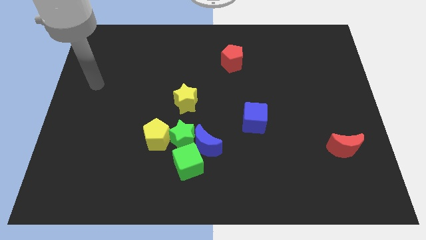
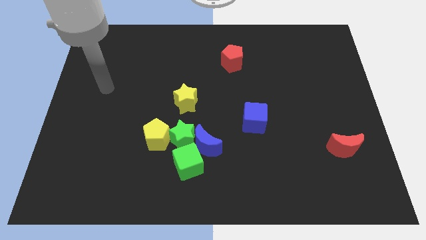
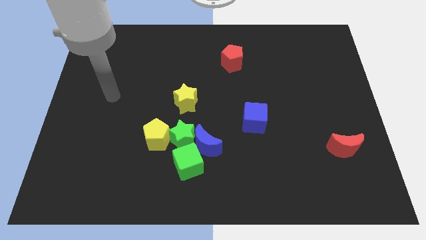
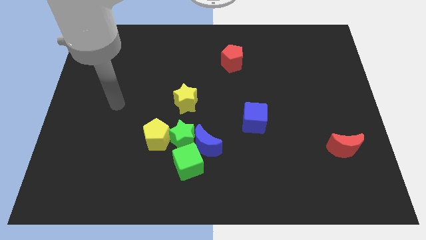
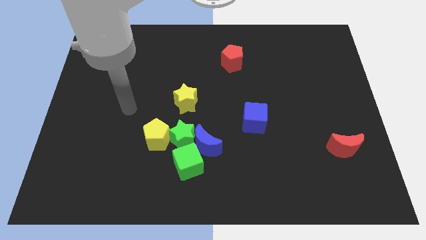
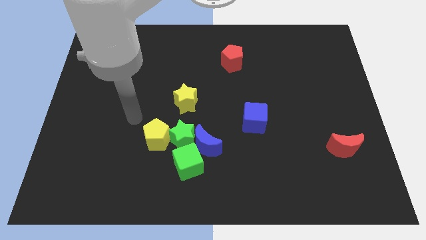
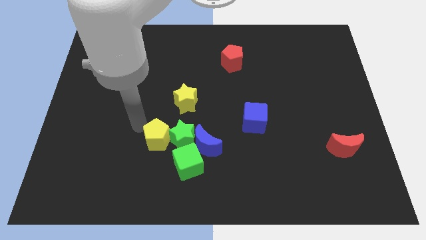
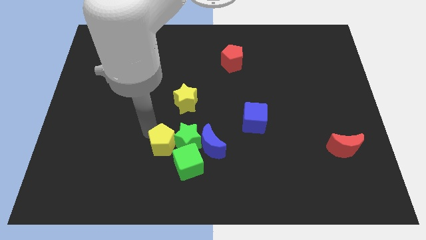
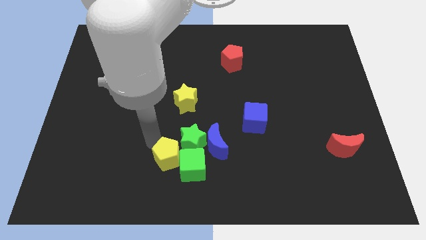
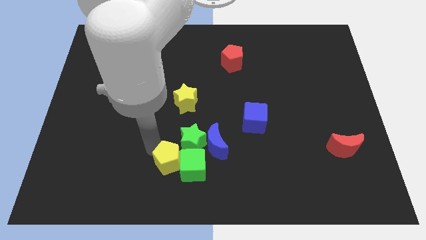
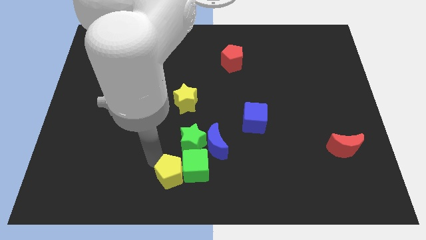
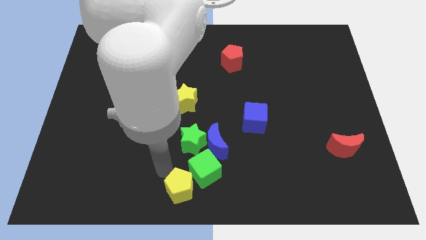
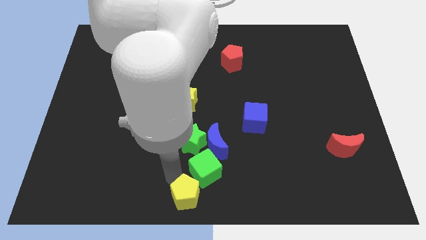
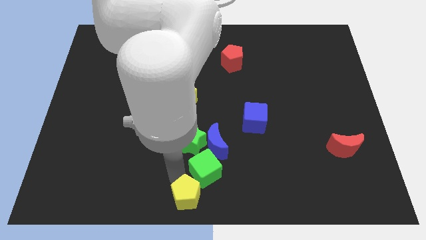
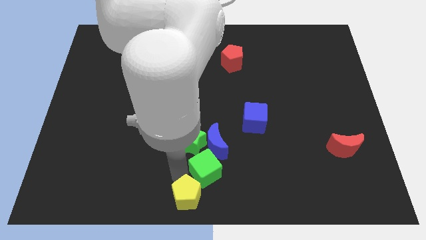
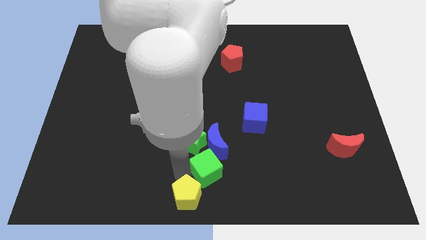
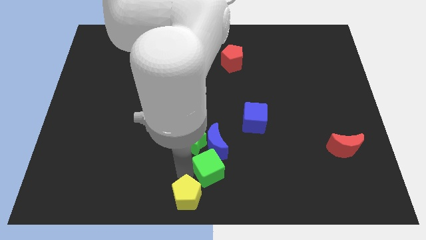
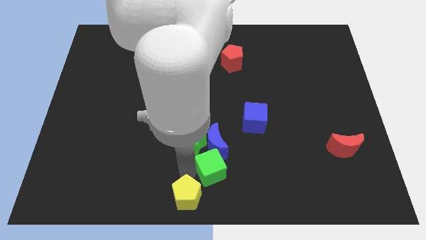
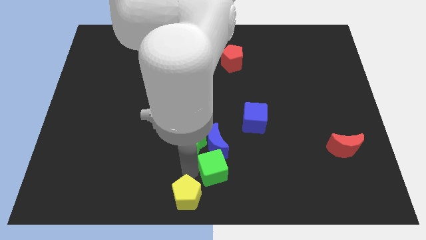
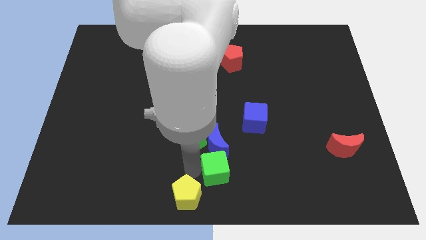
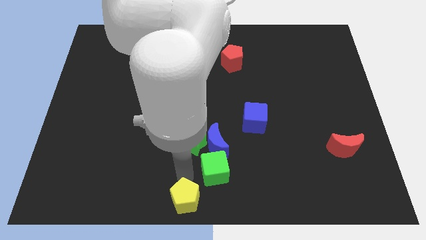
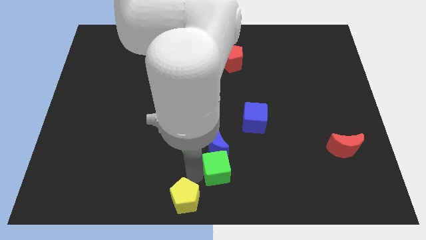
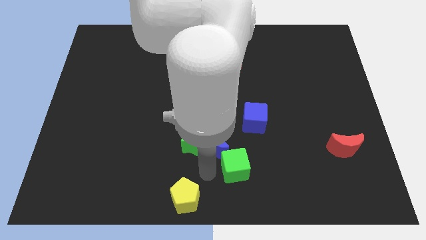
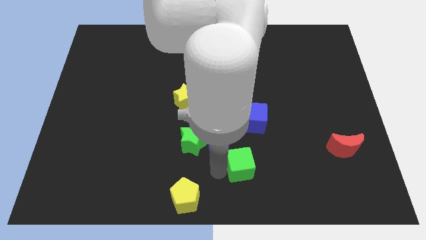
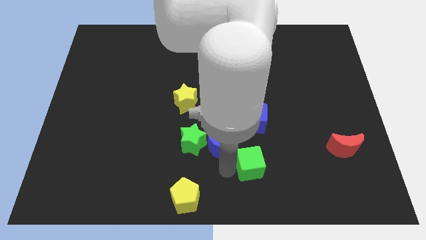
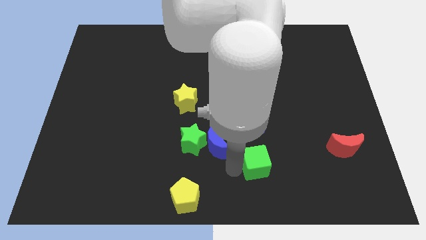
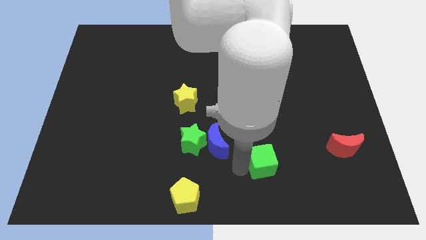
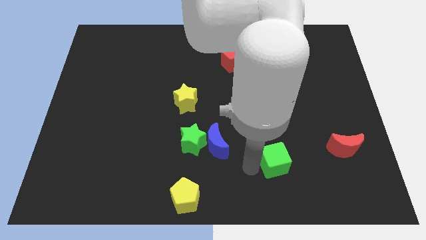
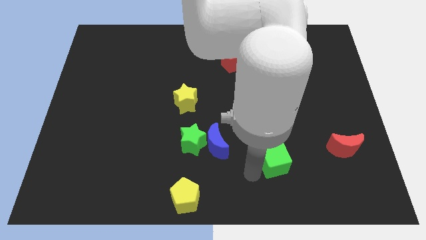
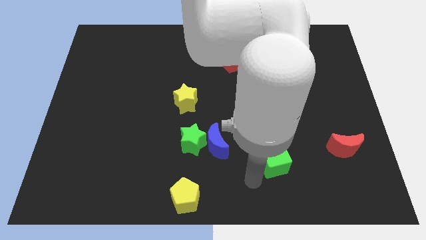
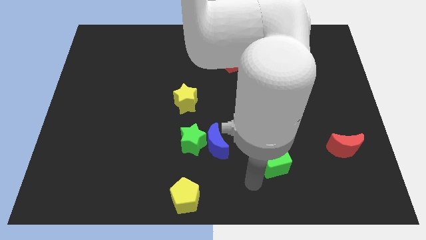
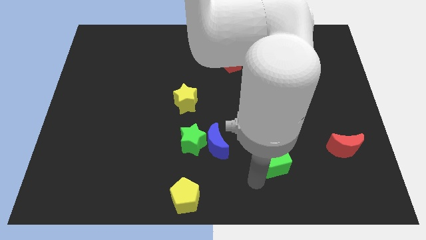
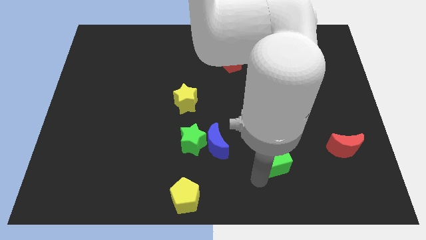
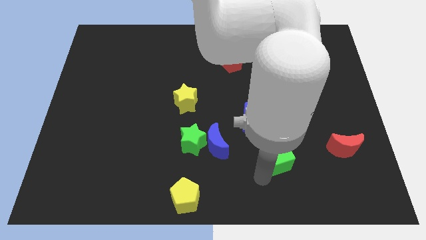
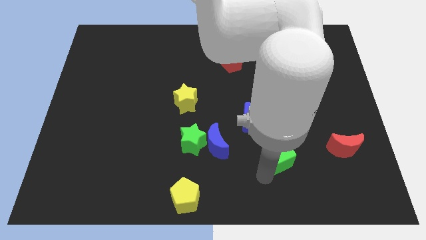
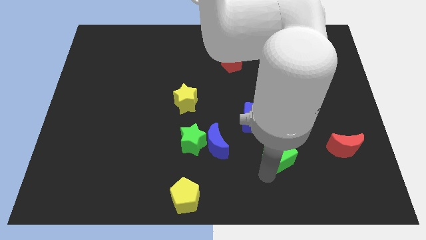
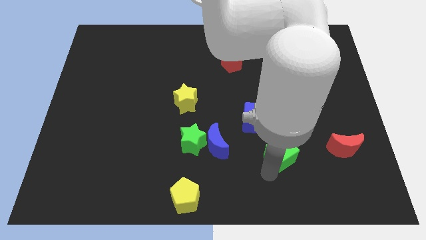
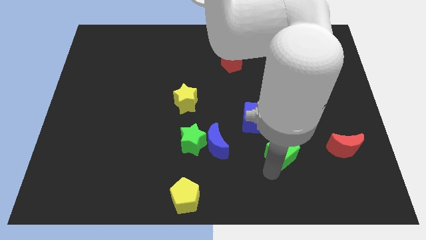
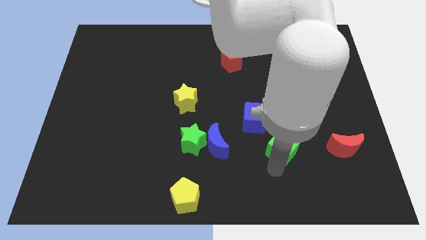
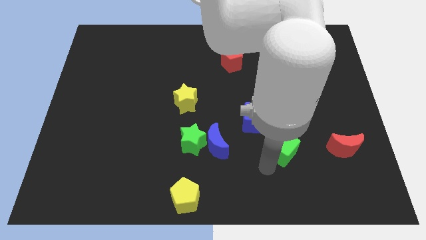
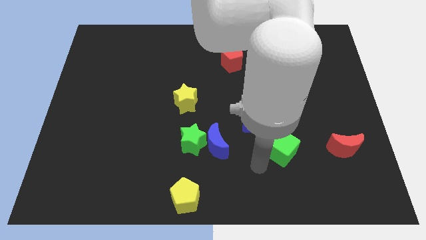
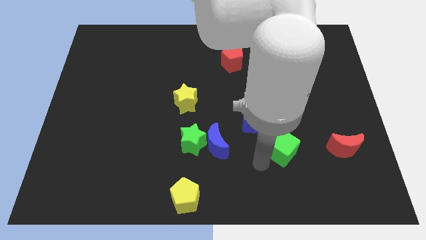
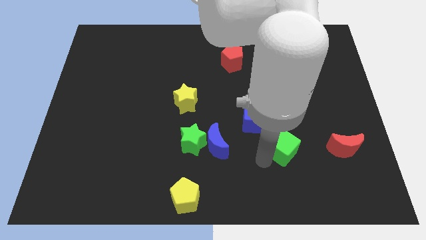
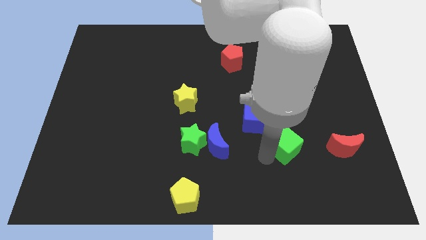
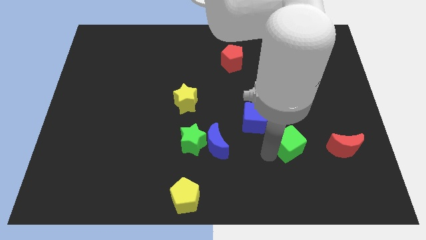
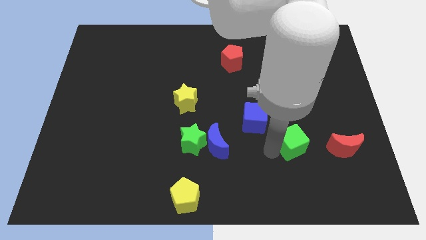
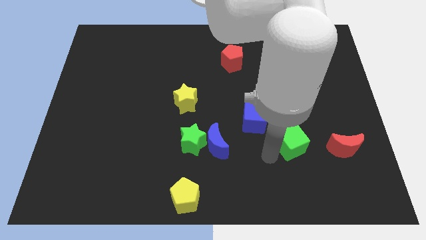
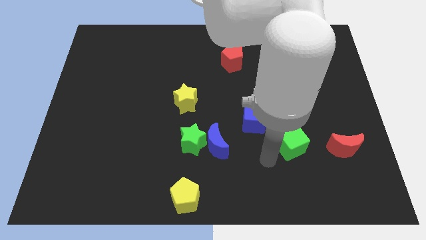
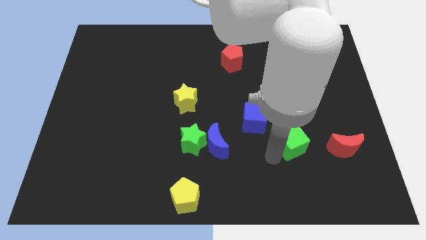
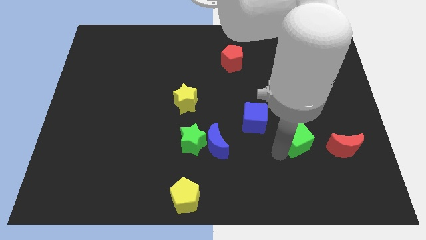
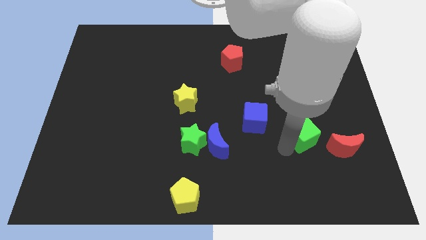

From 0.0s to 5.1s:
move the green cube diagonally up and to the left of the red moon

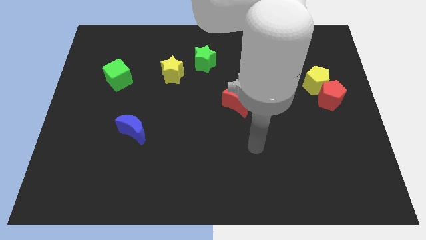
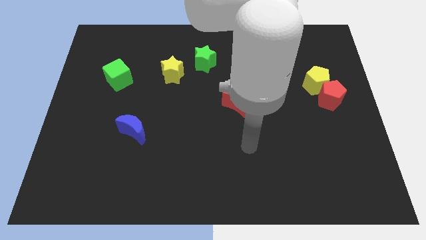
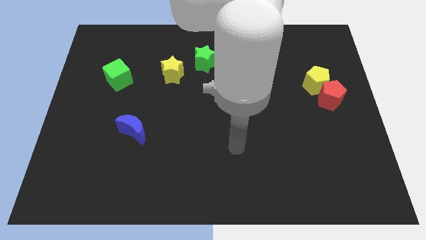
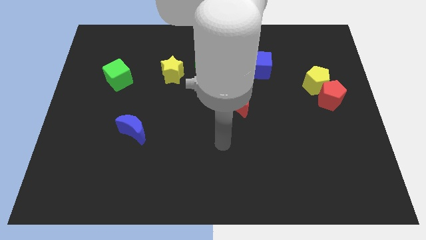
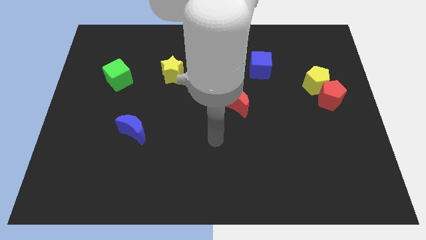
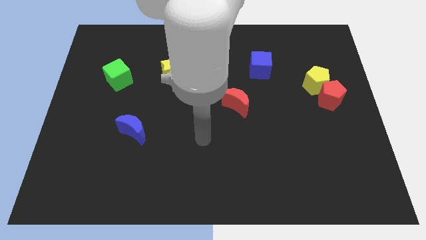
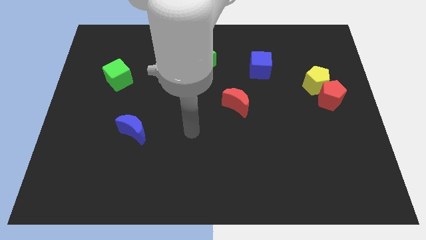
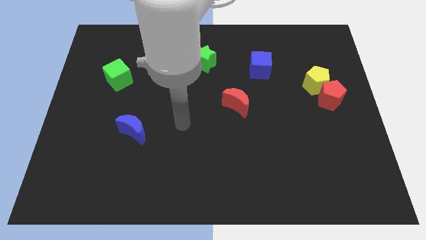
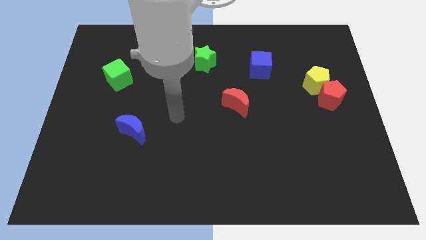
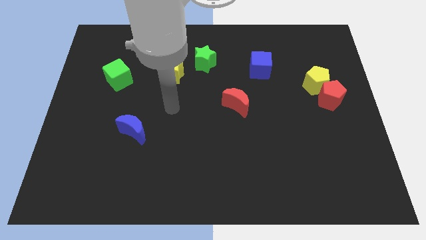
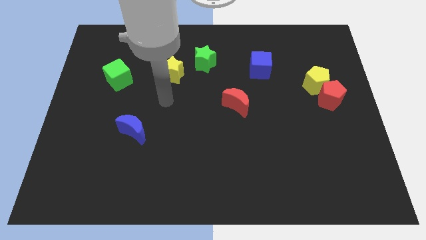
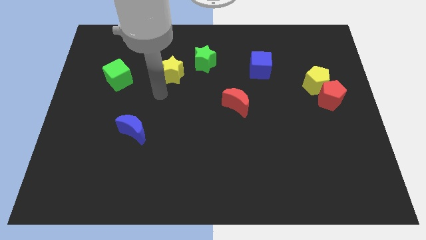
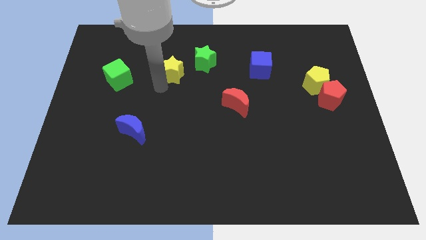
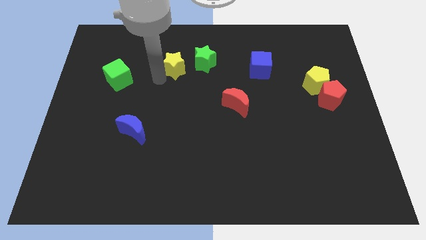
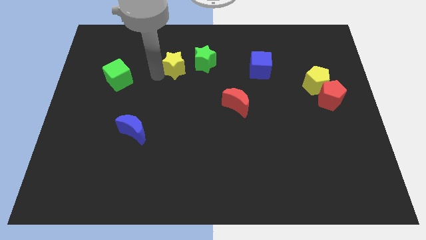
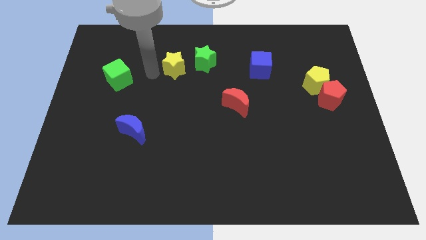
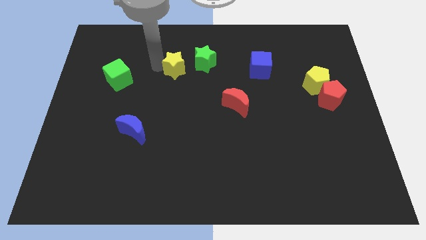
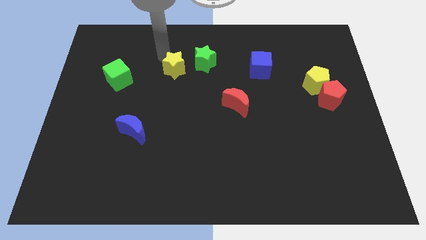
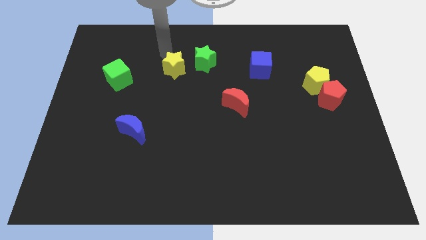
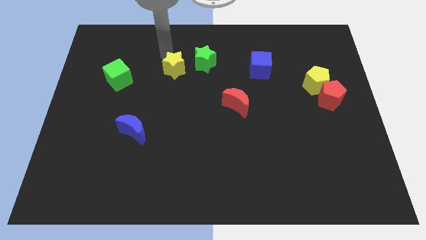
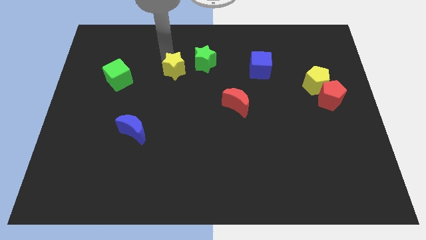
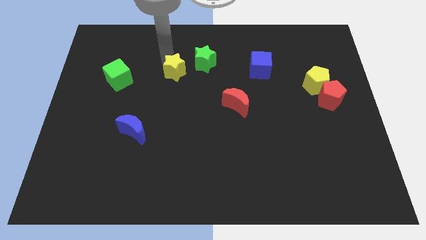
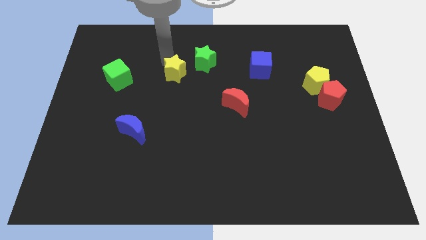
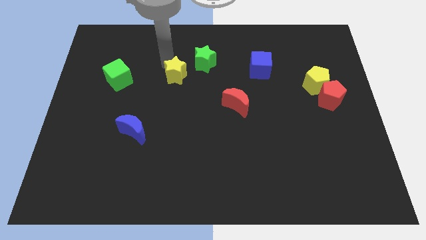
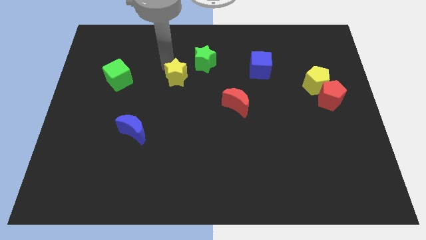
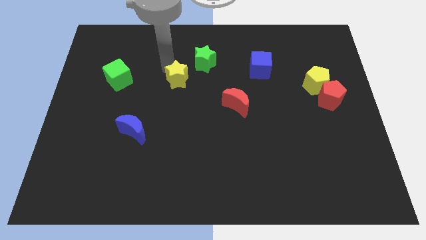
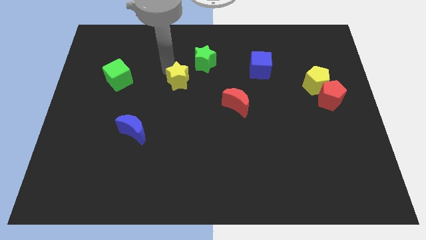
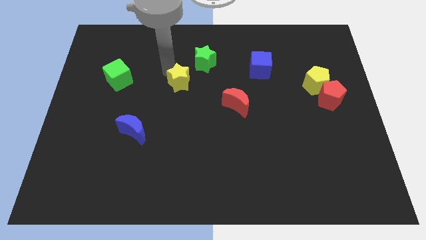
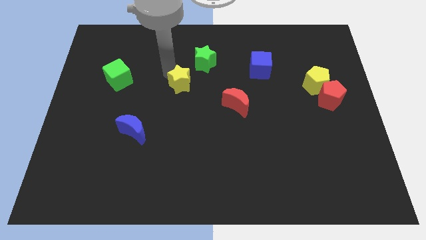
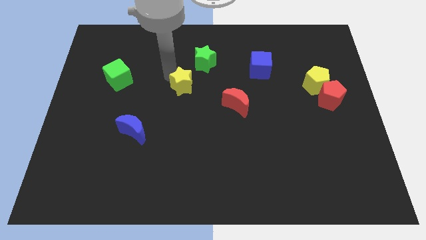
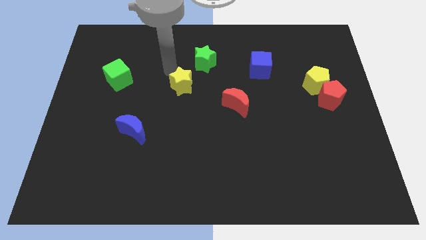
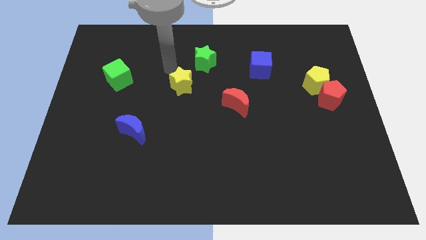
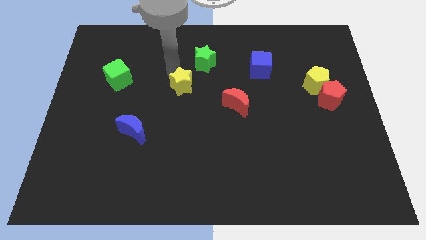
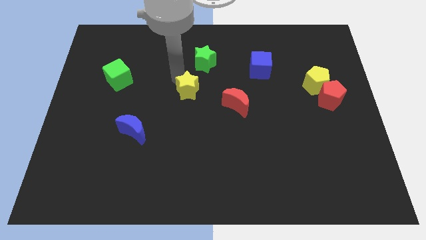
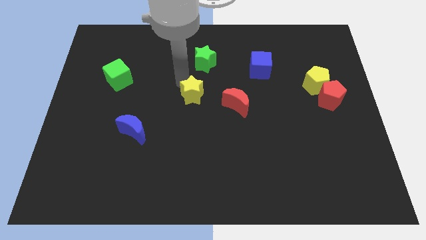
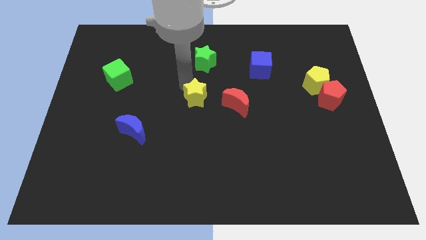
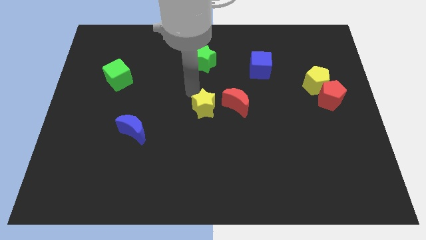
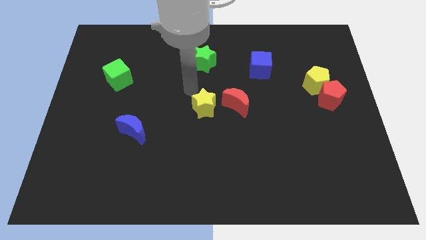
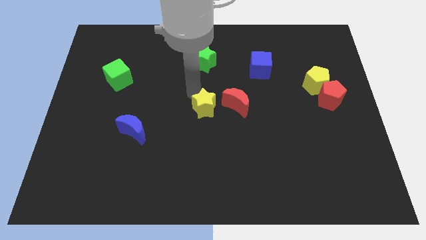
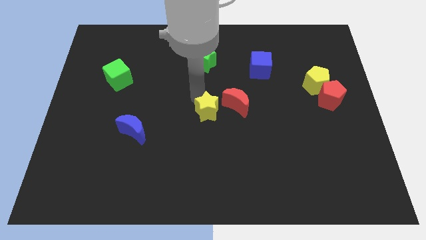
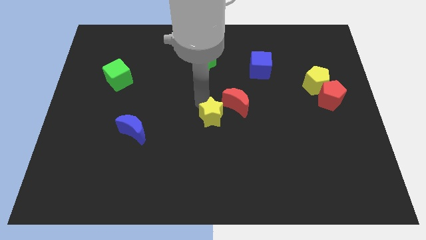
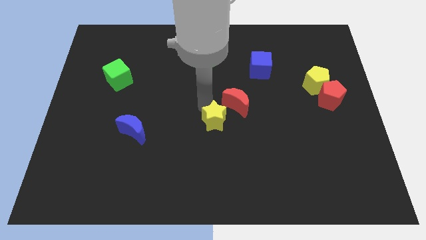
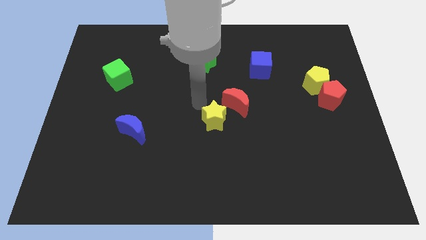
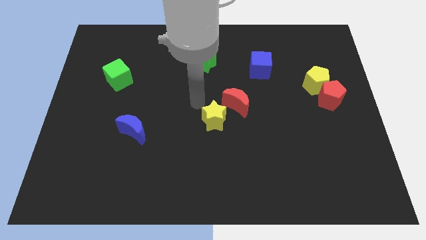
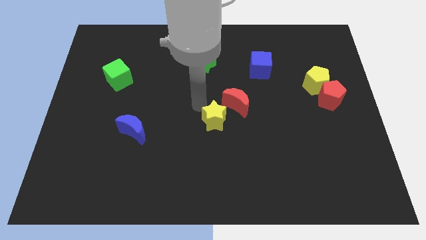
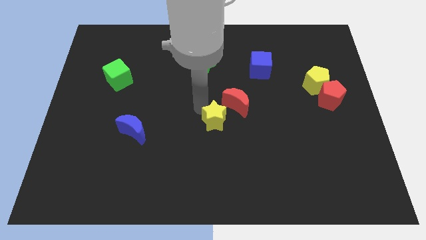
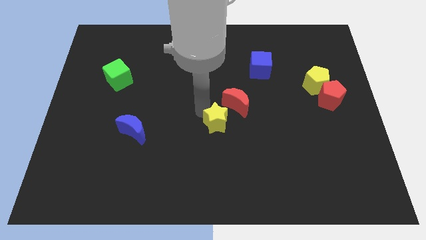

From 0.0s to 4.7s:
put the yellow star below the red moon
